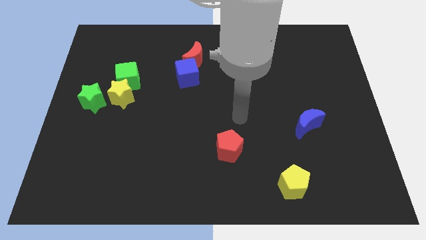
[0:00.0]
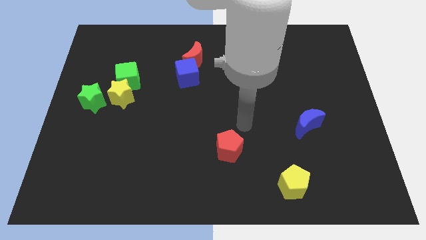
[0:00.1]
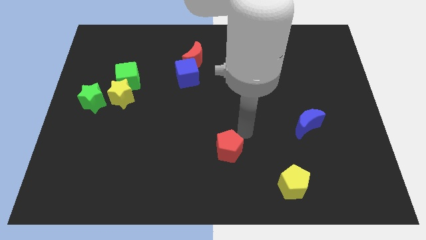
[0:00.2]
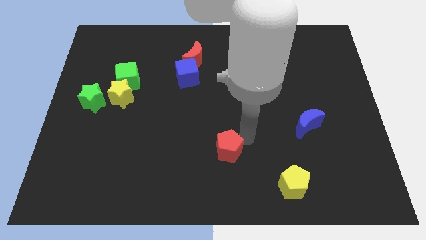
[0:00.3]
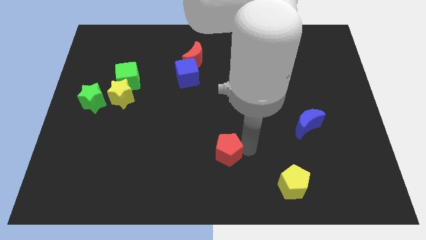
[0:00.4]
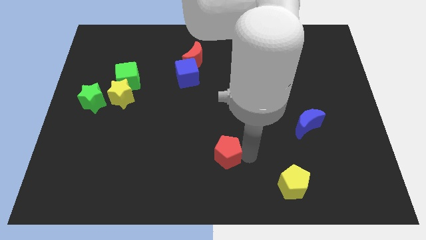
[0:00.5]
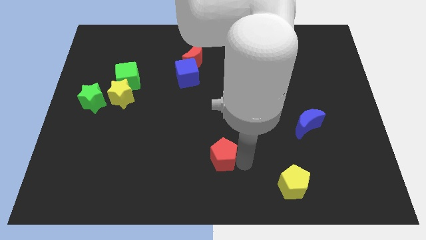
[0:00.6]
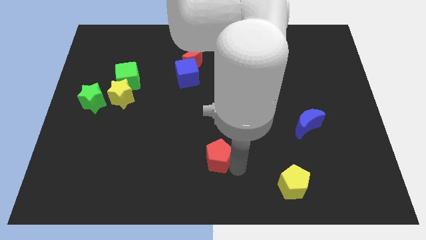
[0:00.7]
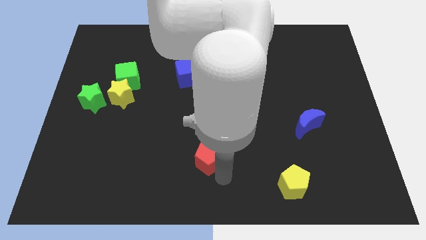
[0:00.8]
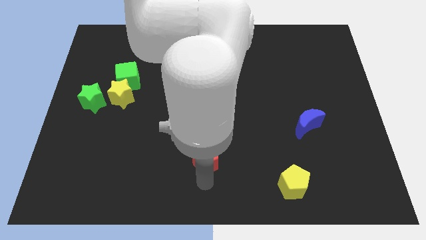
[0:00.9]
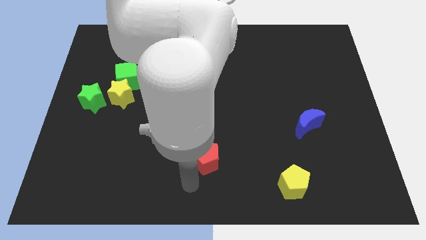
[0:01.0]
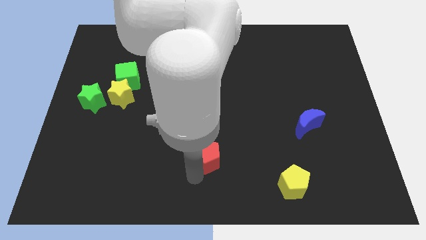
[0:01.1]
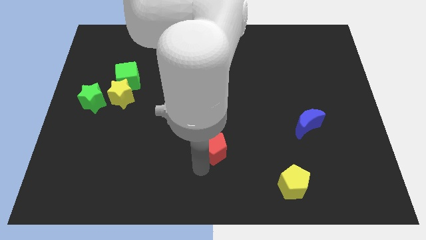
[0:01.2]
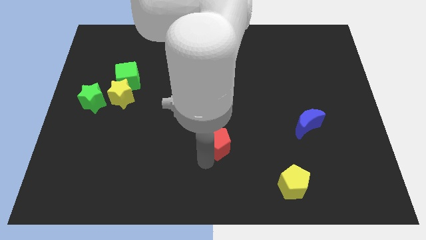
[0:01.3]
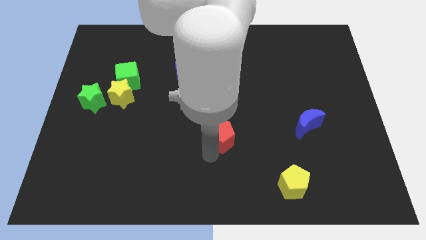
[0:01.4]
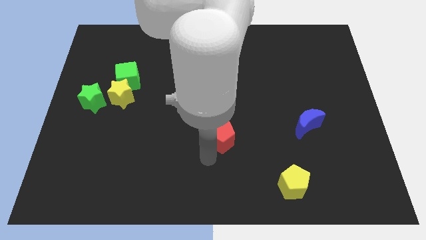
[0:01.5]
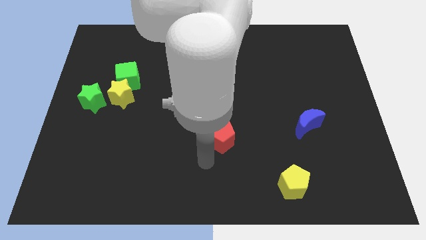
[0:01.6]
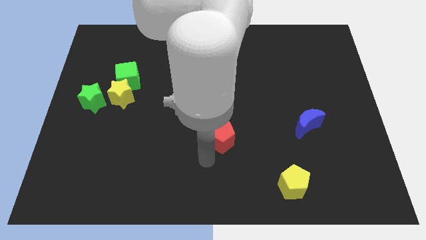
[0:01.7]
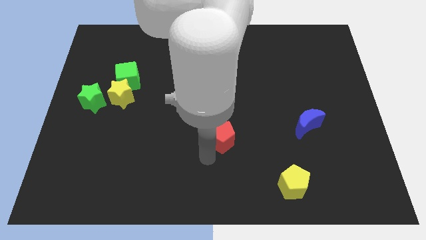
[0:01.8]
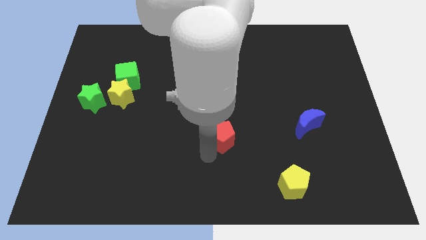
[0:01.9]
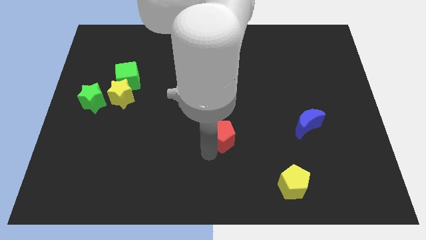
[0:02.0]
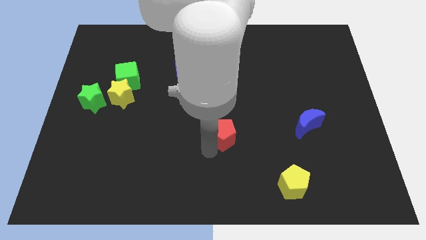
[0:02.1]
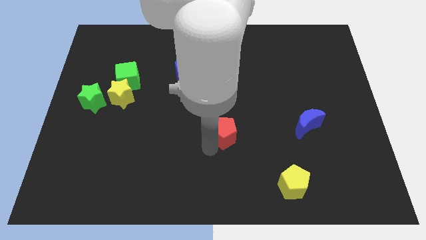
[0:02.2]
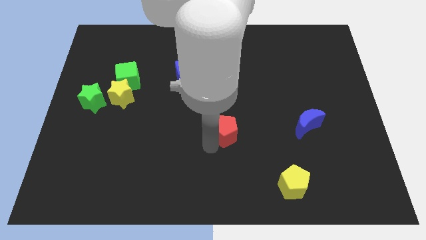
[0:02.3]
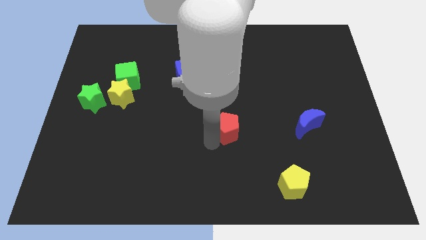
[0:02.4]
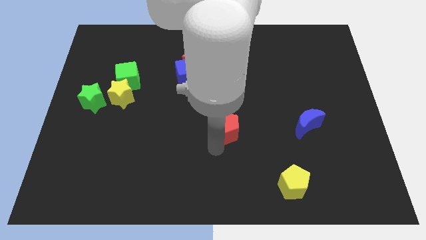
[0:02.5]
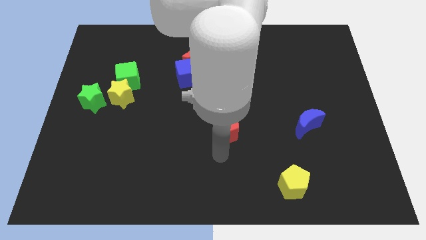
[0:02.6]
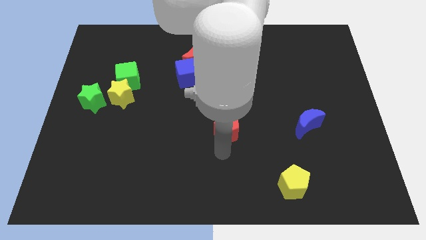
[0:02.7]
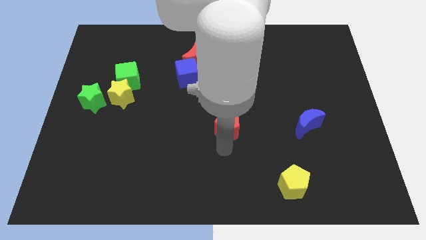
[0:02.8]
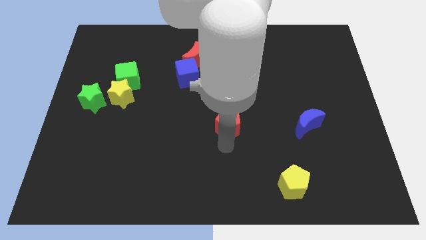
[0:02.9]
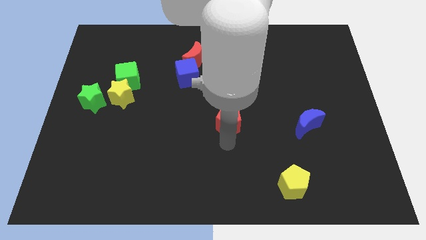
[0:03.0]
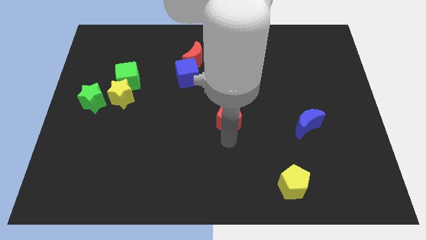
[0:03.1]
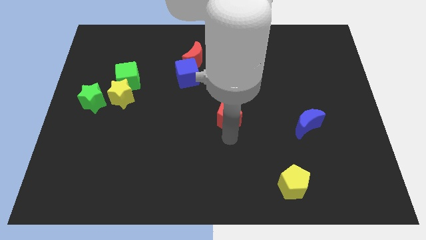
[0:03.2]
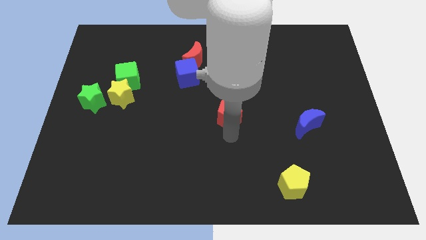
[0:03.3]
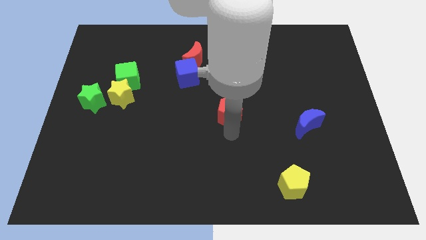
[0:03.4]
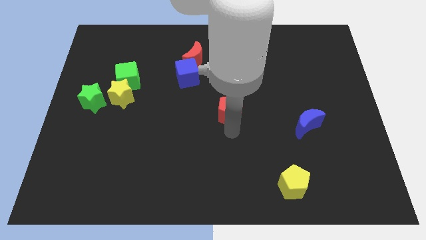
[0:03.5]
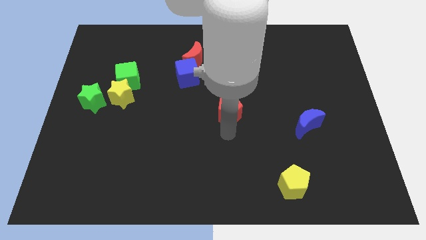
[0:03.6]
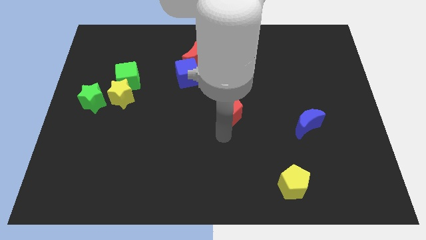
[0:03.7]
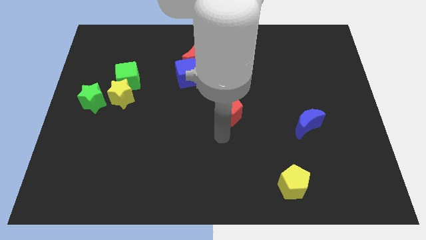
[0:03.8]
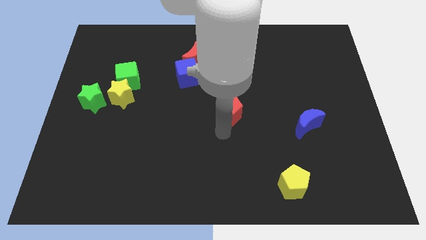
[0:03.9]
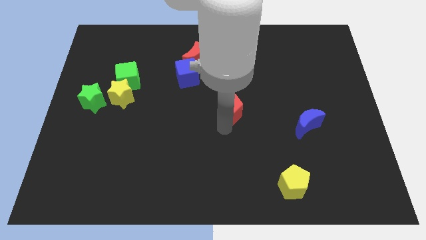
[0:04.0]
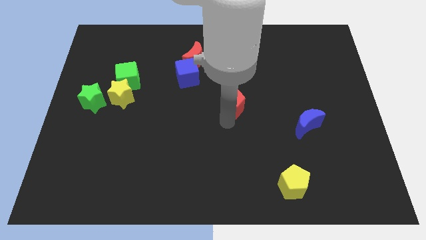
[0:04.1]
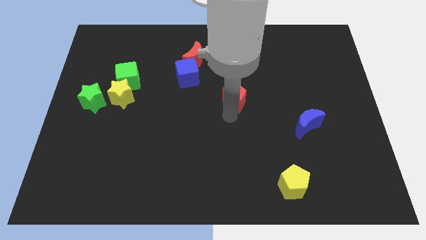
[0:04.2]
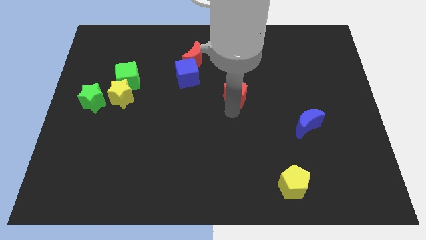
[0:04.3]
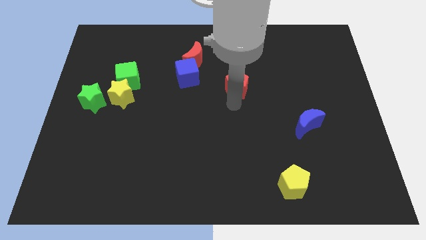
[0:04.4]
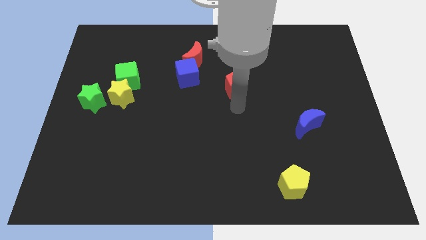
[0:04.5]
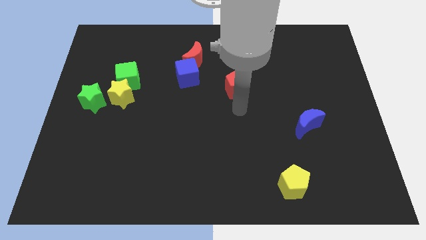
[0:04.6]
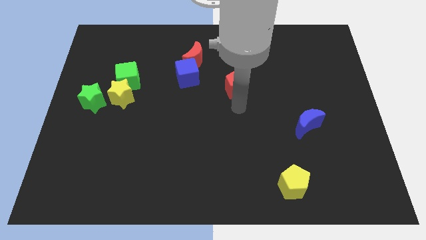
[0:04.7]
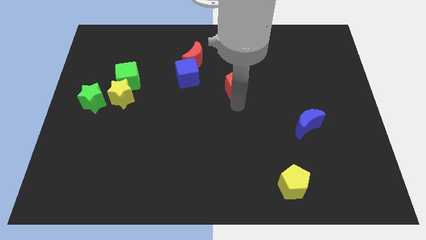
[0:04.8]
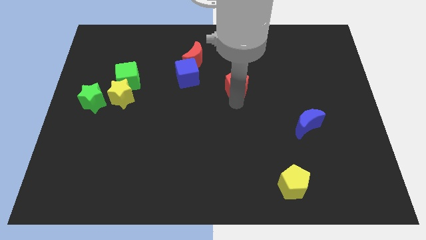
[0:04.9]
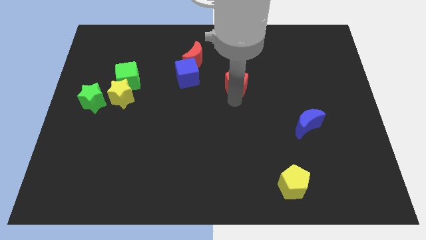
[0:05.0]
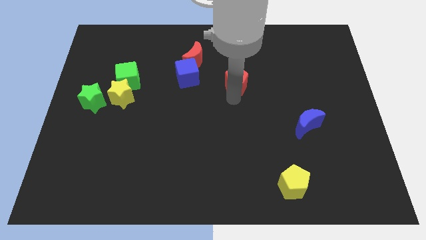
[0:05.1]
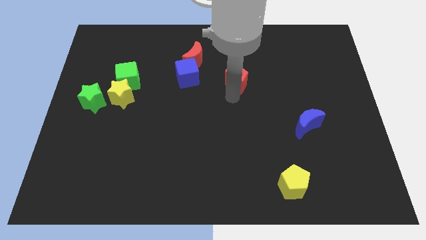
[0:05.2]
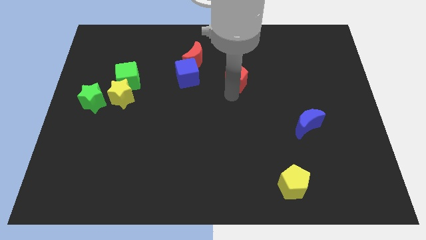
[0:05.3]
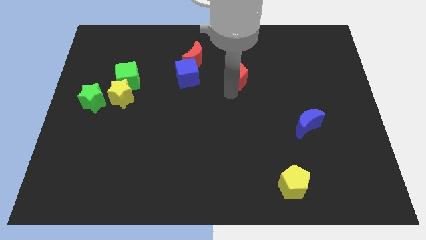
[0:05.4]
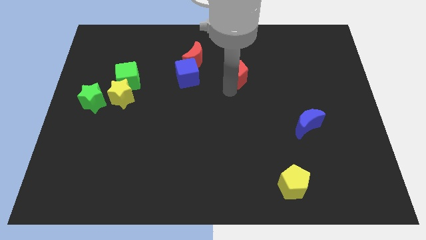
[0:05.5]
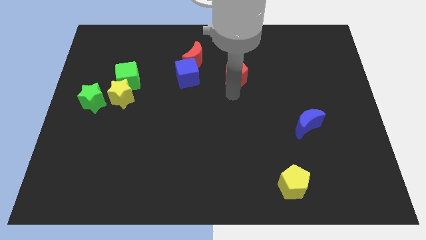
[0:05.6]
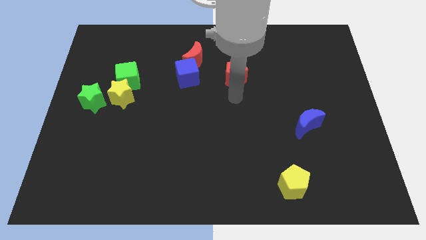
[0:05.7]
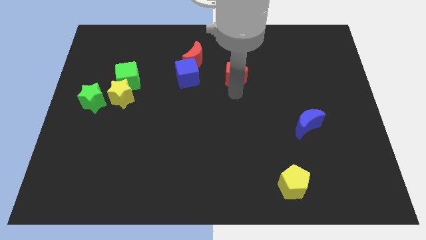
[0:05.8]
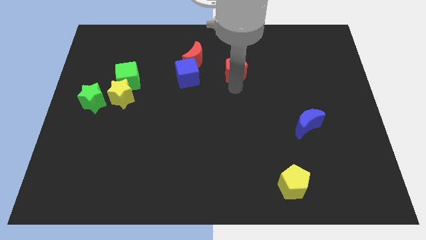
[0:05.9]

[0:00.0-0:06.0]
move the red pentagon to the right of the red moon
